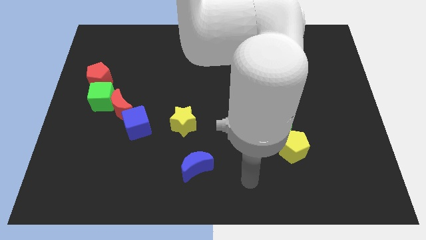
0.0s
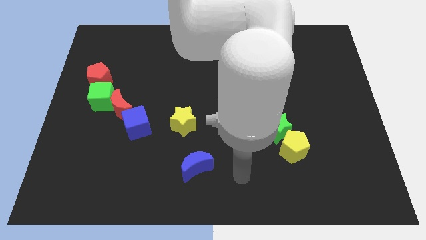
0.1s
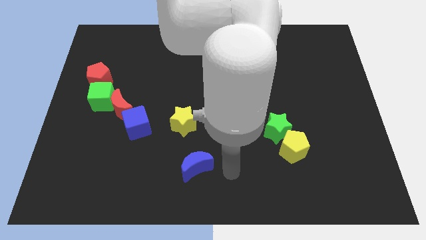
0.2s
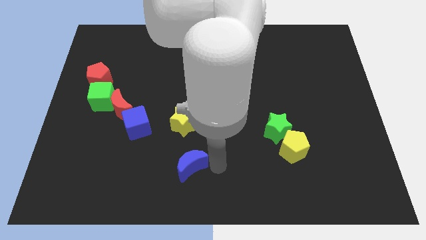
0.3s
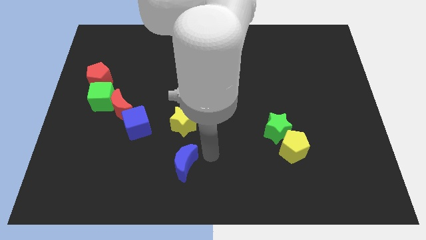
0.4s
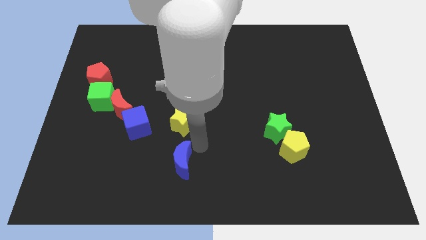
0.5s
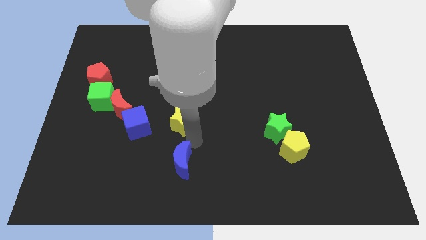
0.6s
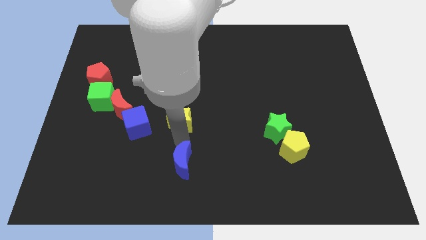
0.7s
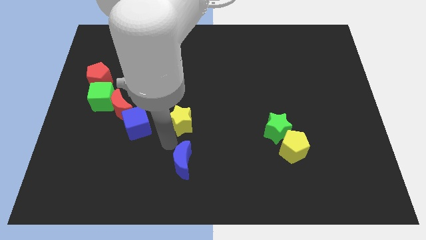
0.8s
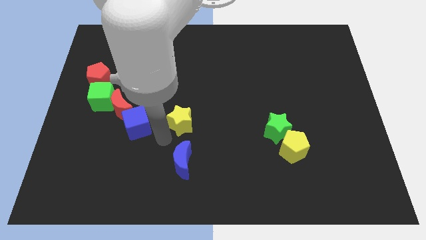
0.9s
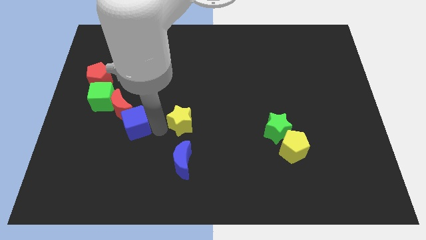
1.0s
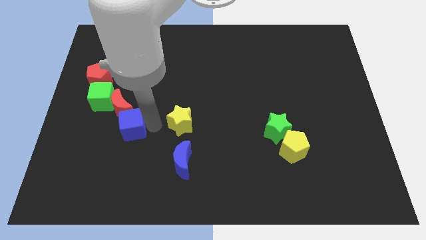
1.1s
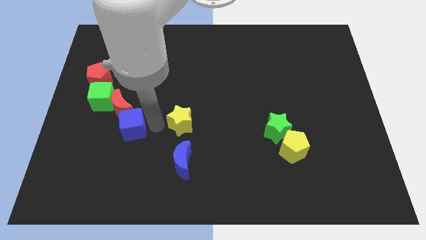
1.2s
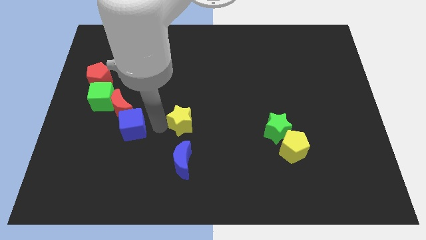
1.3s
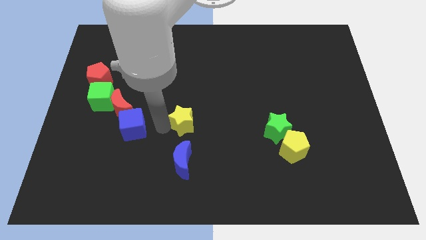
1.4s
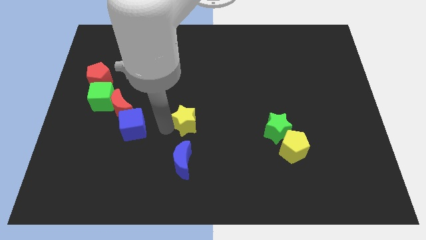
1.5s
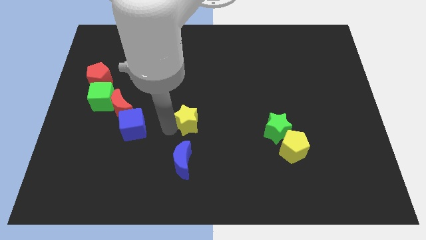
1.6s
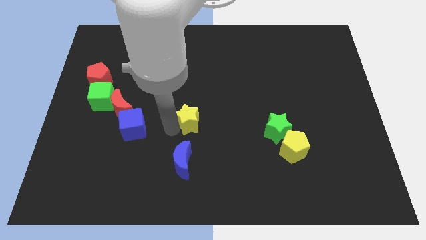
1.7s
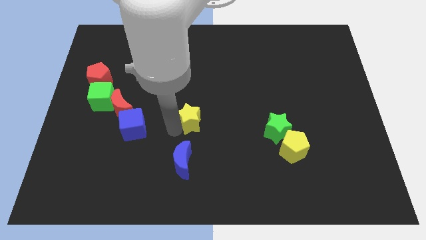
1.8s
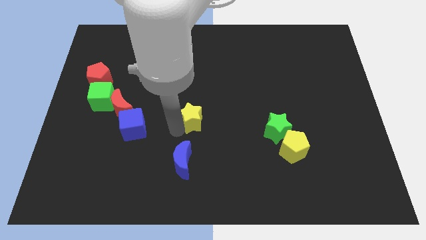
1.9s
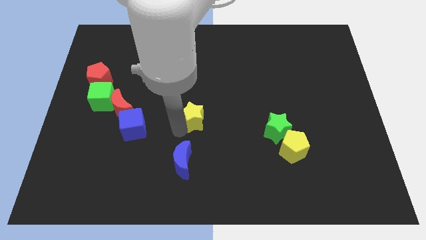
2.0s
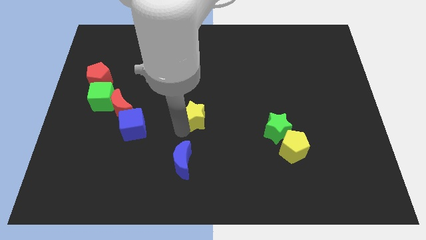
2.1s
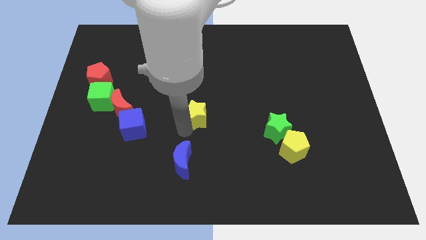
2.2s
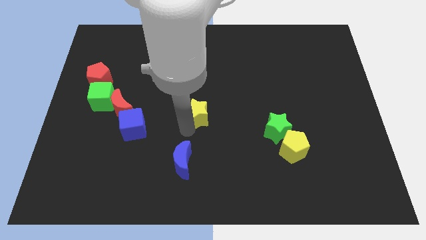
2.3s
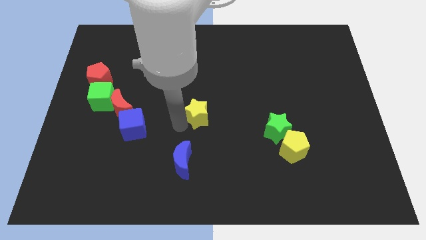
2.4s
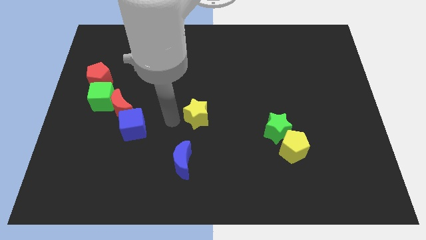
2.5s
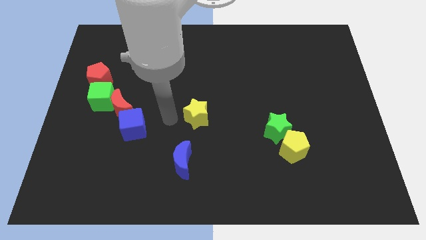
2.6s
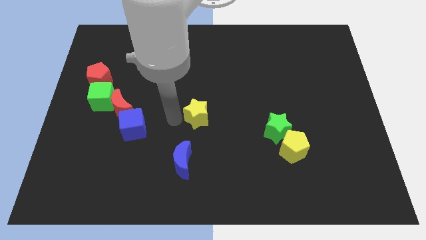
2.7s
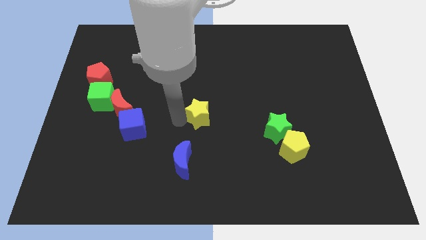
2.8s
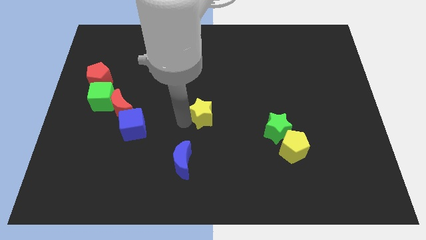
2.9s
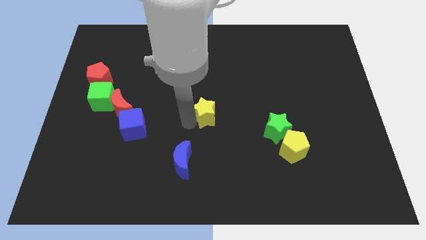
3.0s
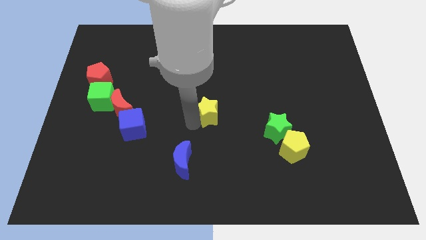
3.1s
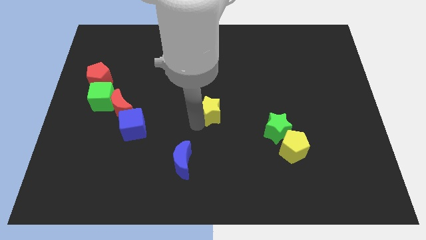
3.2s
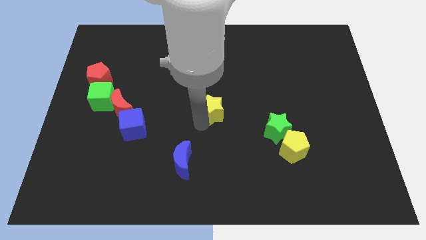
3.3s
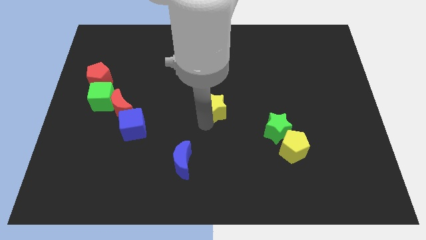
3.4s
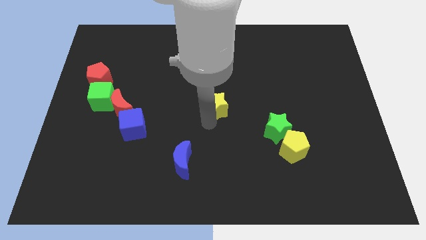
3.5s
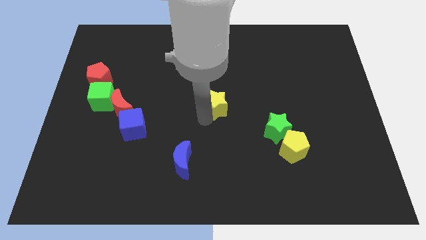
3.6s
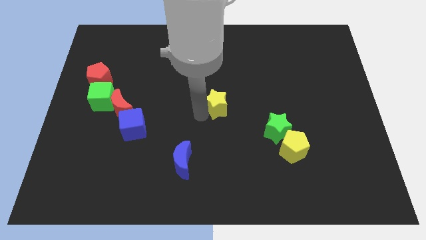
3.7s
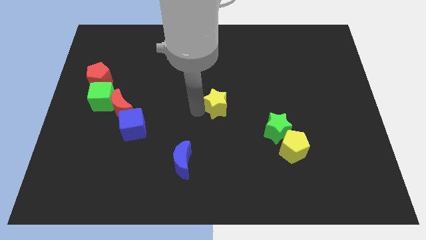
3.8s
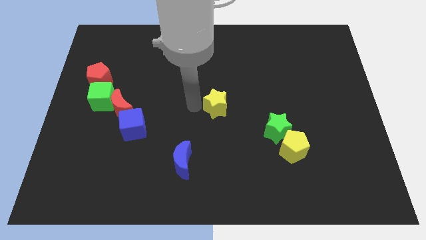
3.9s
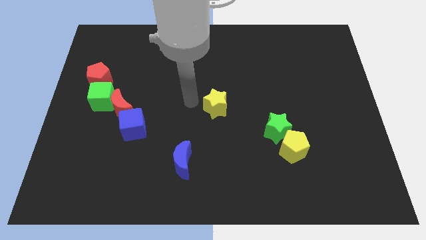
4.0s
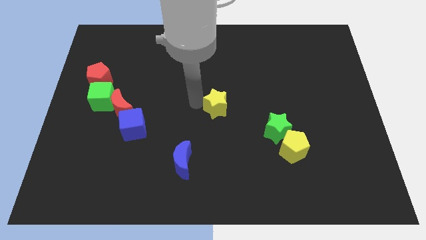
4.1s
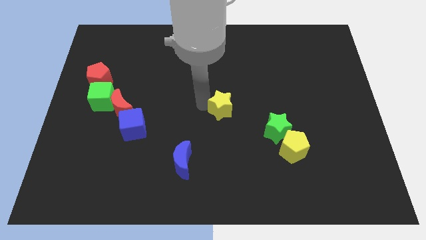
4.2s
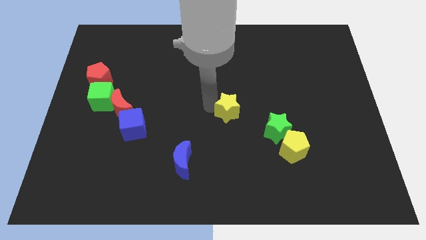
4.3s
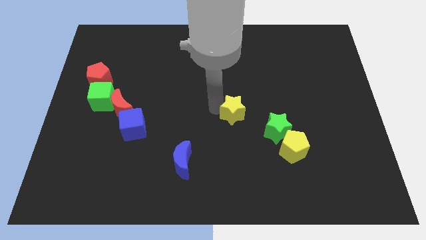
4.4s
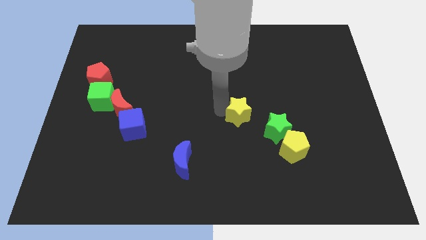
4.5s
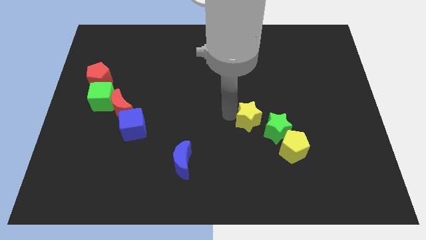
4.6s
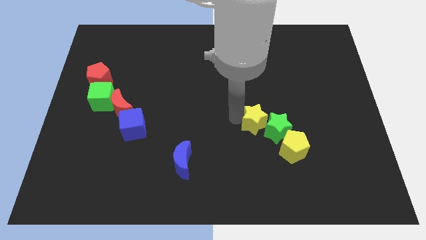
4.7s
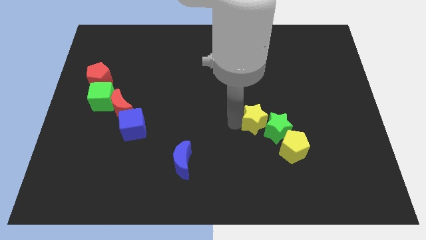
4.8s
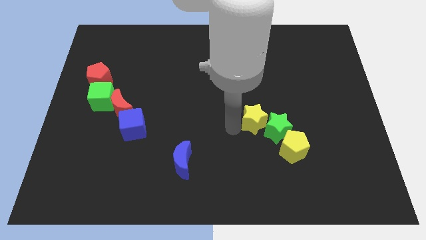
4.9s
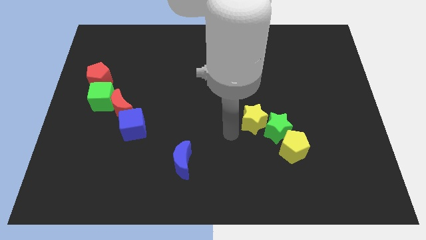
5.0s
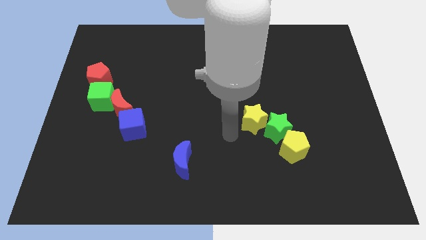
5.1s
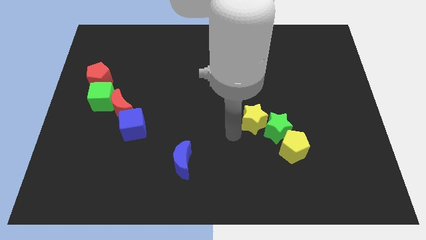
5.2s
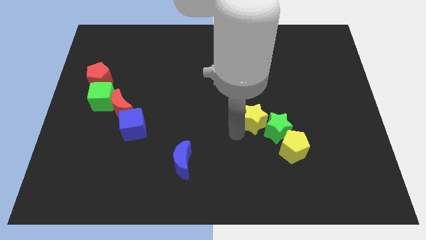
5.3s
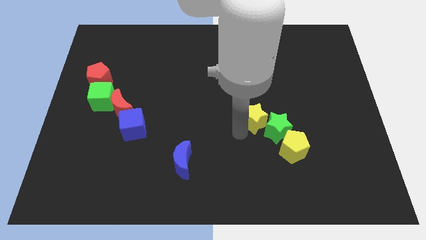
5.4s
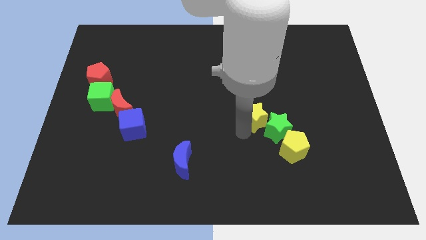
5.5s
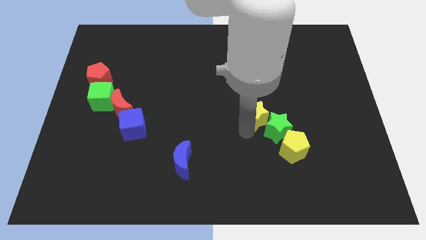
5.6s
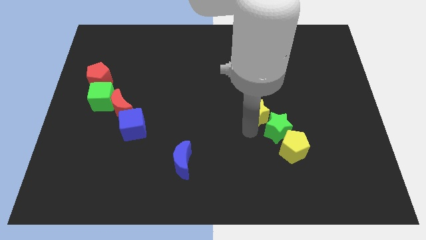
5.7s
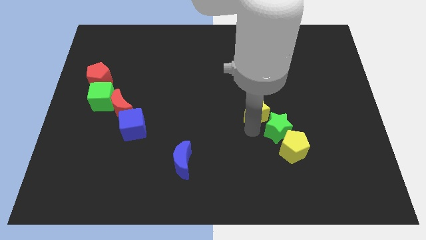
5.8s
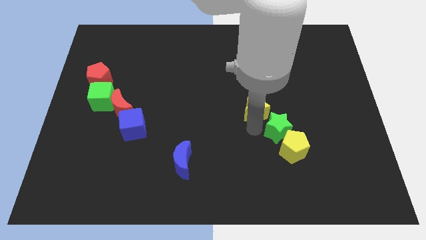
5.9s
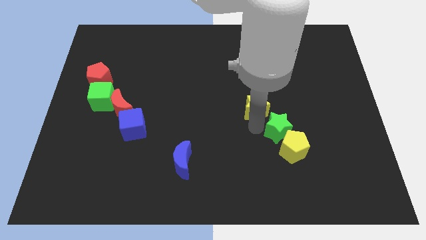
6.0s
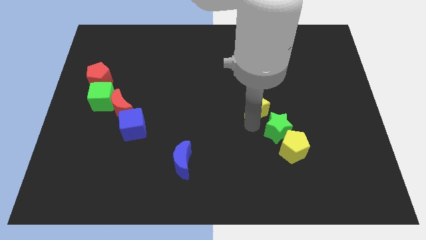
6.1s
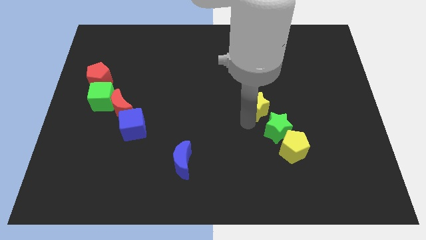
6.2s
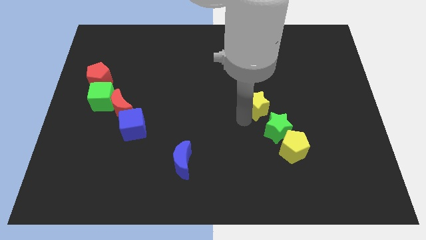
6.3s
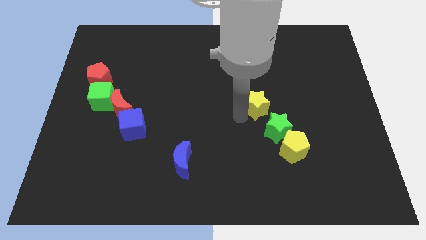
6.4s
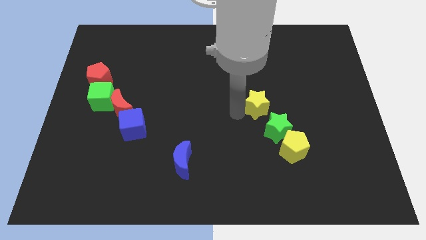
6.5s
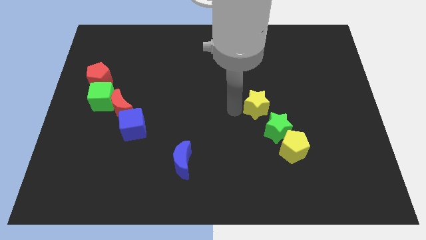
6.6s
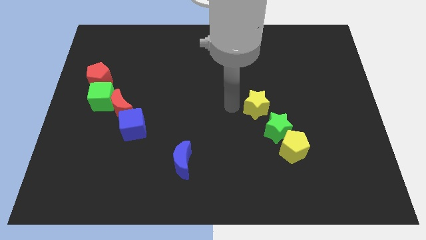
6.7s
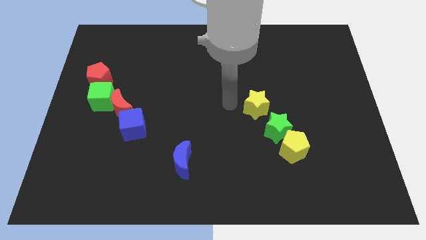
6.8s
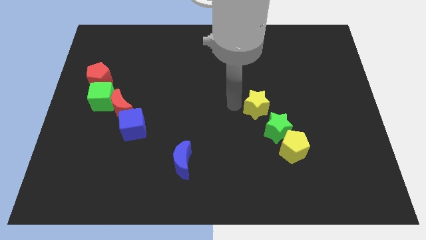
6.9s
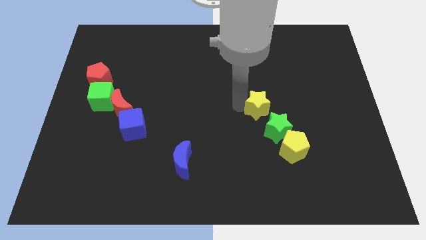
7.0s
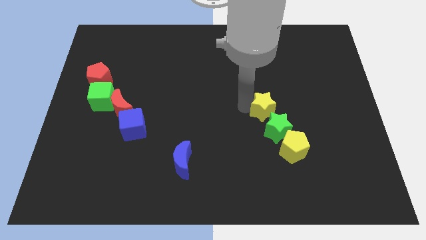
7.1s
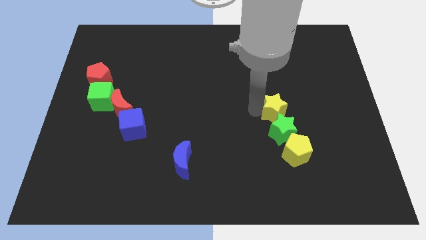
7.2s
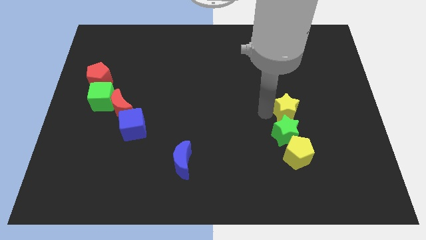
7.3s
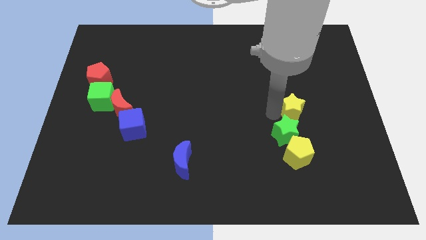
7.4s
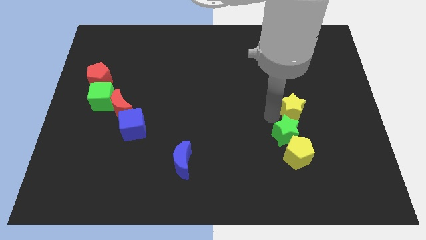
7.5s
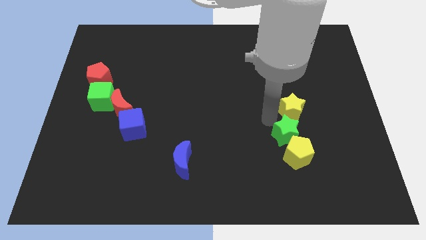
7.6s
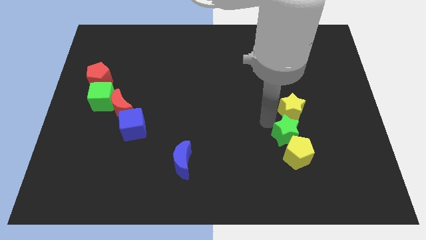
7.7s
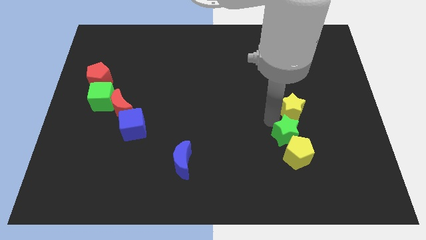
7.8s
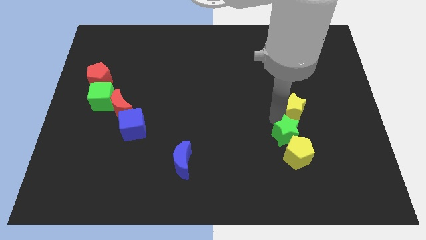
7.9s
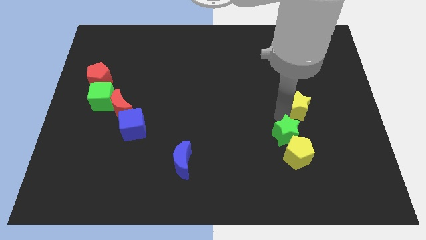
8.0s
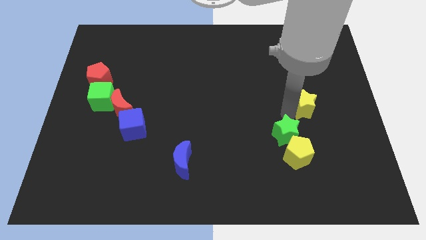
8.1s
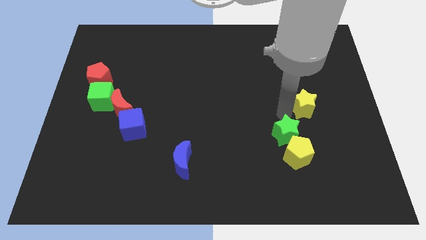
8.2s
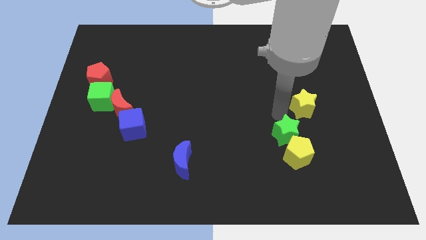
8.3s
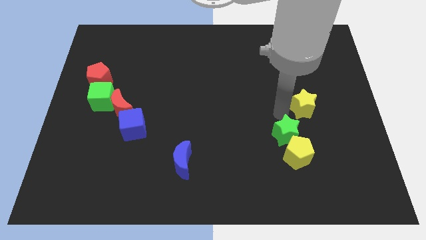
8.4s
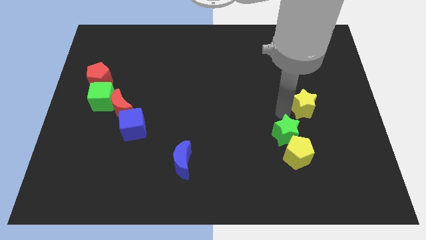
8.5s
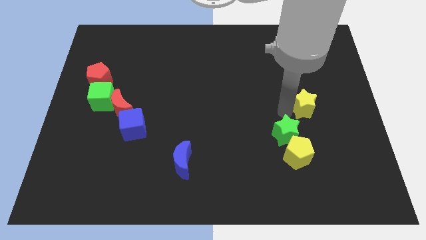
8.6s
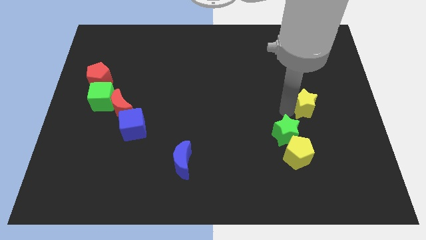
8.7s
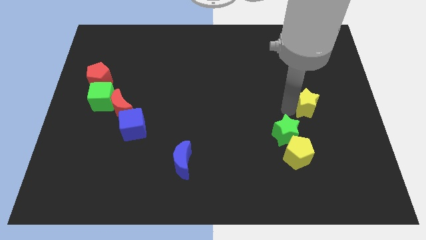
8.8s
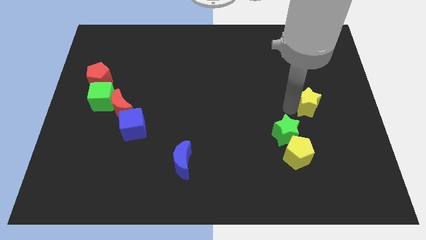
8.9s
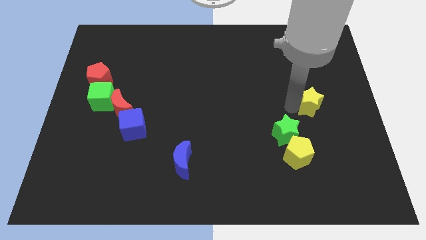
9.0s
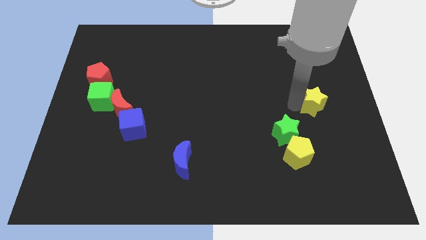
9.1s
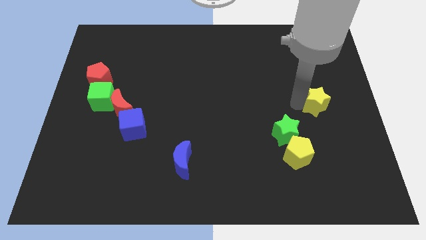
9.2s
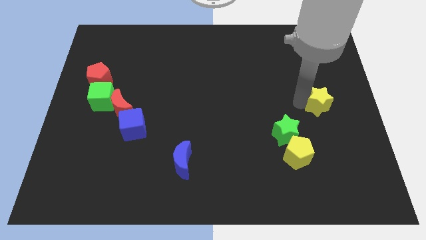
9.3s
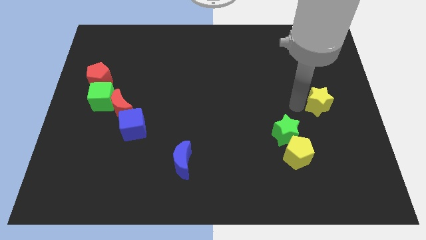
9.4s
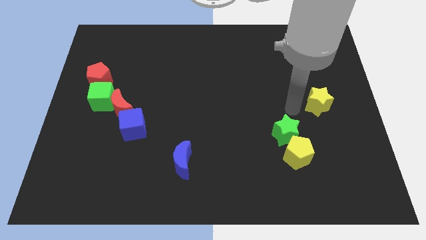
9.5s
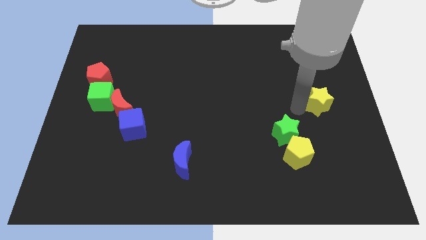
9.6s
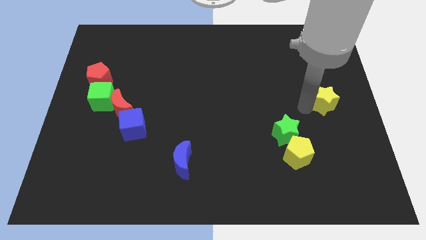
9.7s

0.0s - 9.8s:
move the yellow star to the right side of the board
